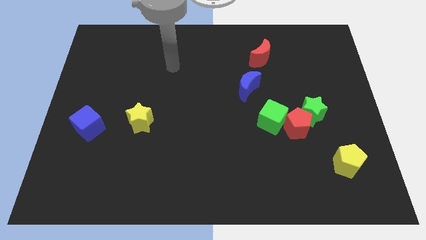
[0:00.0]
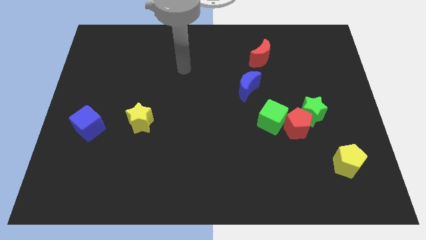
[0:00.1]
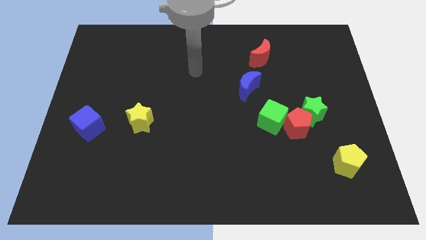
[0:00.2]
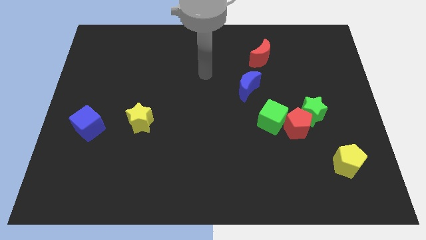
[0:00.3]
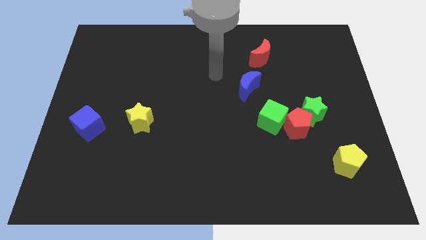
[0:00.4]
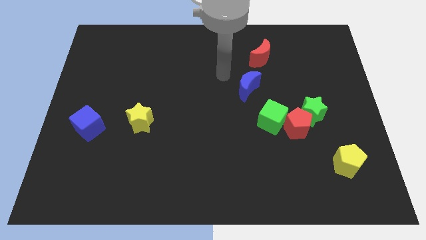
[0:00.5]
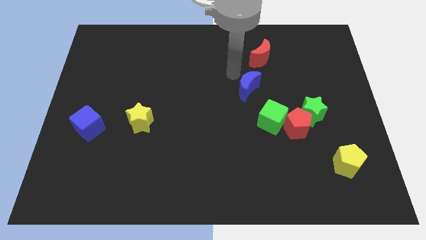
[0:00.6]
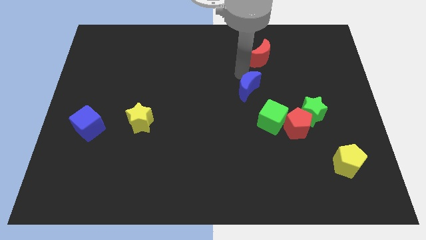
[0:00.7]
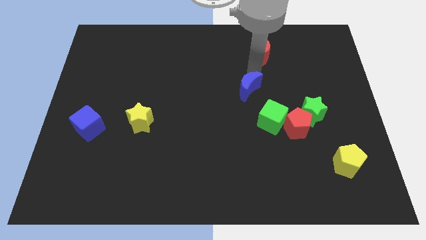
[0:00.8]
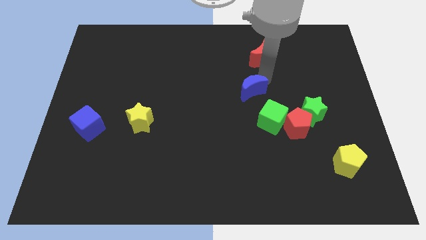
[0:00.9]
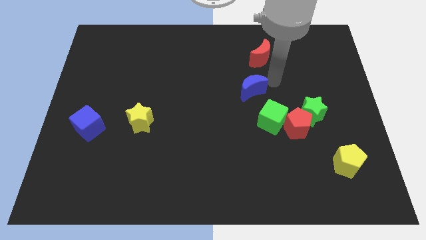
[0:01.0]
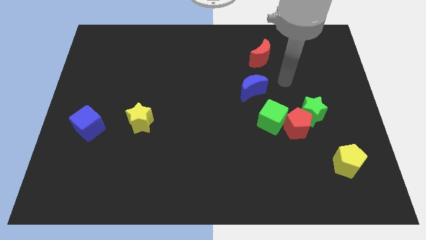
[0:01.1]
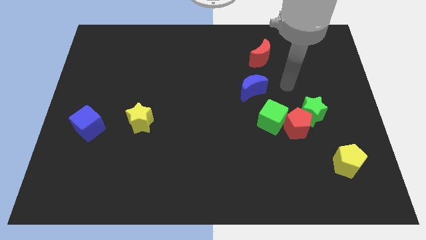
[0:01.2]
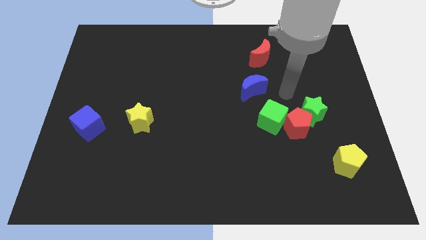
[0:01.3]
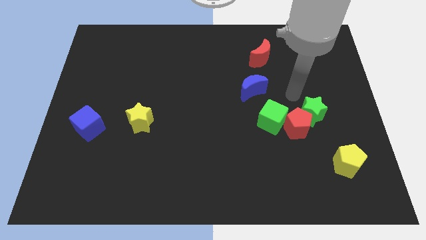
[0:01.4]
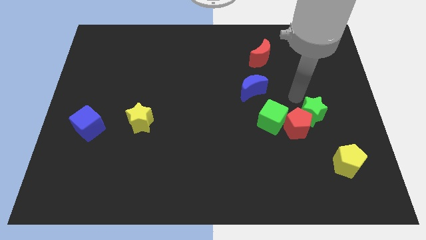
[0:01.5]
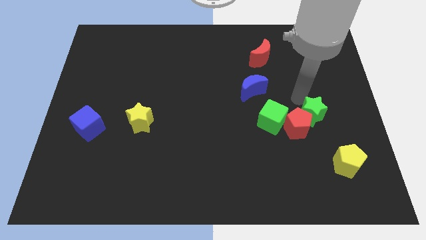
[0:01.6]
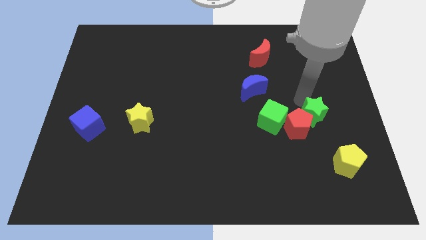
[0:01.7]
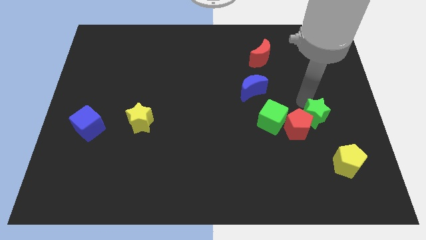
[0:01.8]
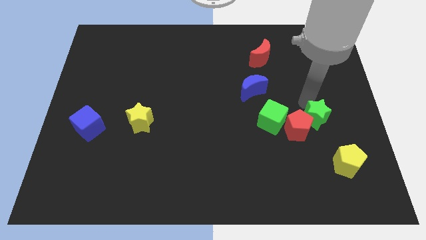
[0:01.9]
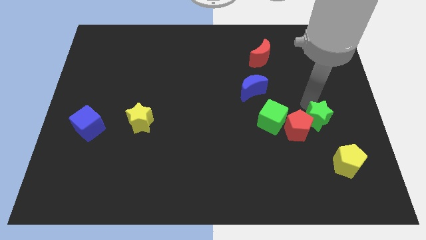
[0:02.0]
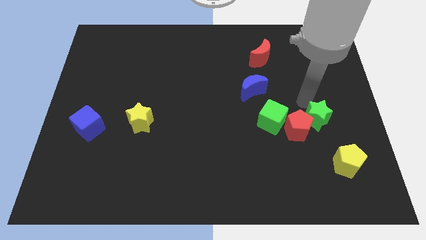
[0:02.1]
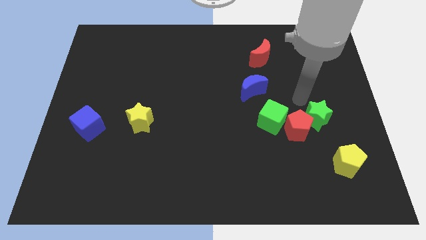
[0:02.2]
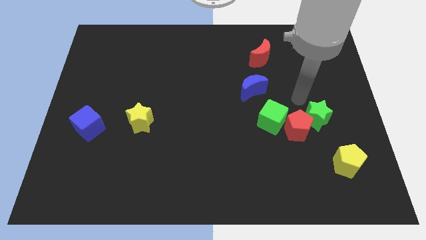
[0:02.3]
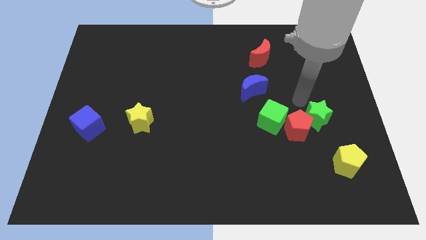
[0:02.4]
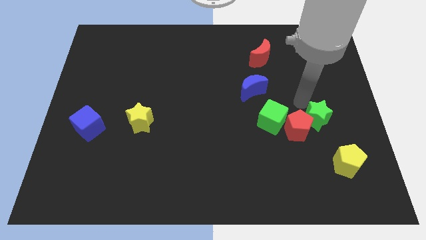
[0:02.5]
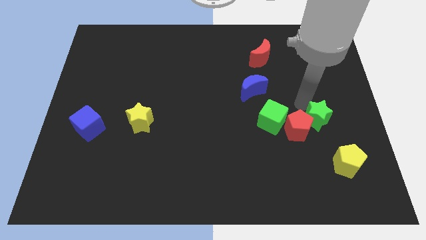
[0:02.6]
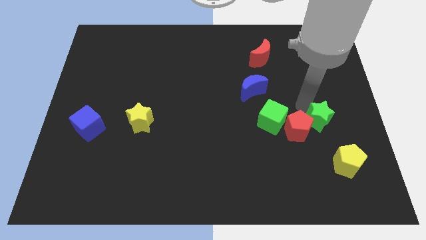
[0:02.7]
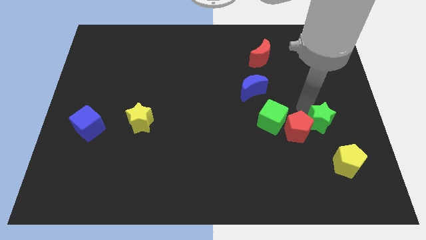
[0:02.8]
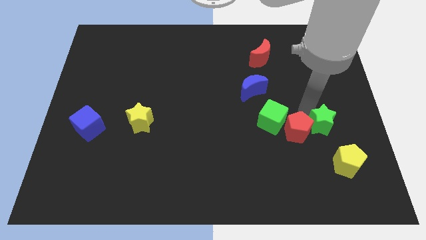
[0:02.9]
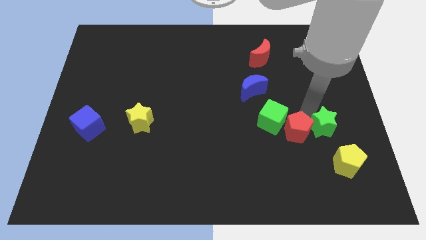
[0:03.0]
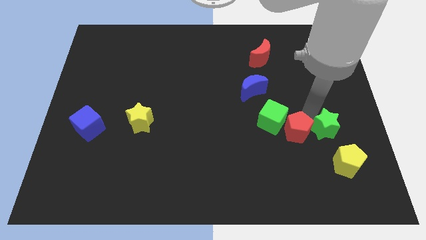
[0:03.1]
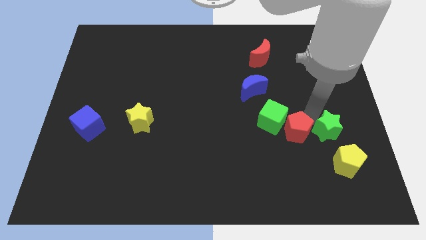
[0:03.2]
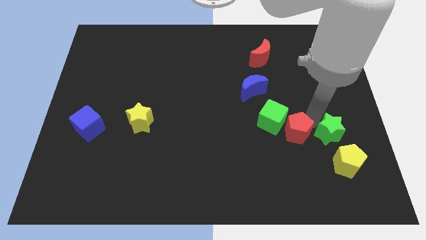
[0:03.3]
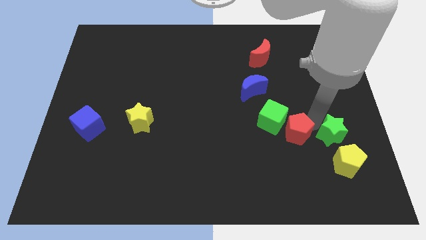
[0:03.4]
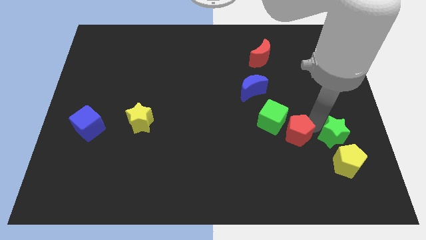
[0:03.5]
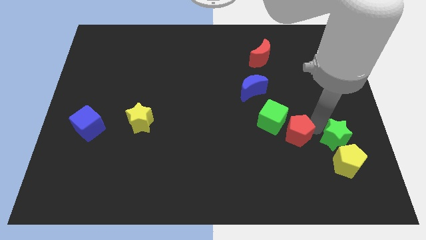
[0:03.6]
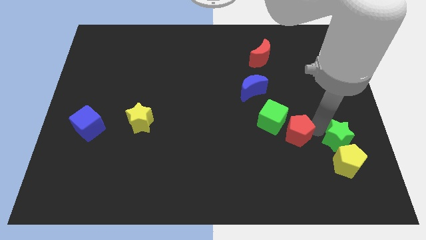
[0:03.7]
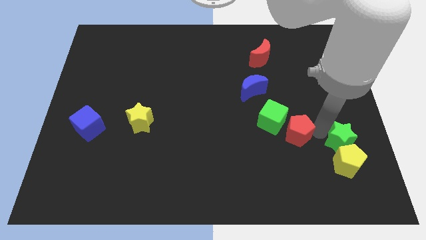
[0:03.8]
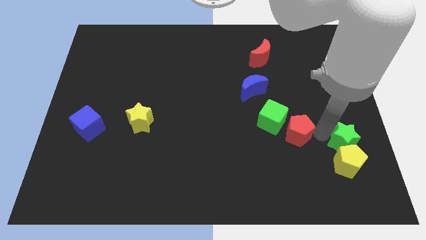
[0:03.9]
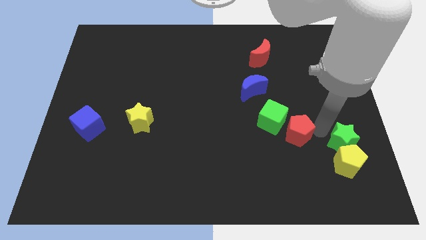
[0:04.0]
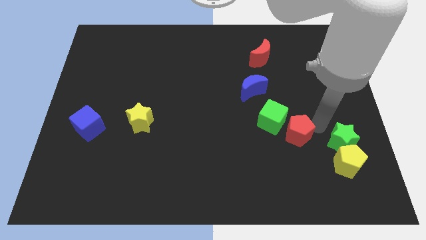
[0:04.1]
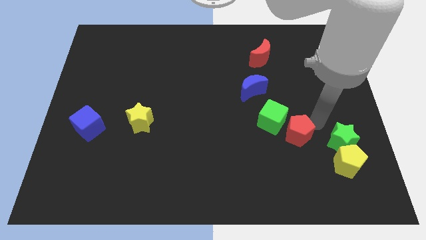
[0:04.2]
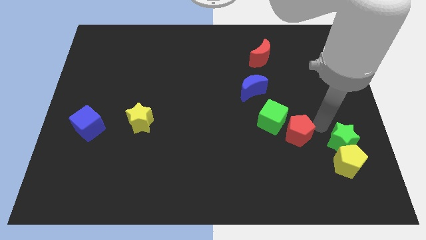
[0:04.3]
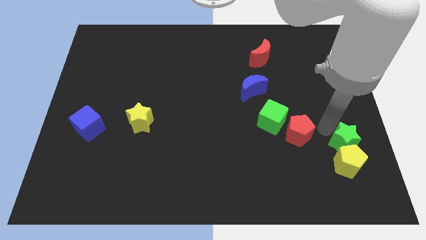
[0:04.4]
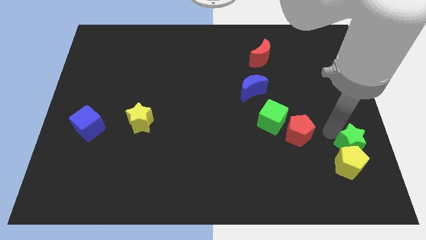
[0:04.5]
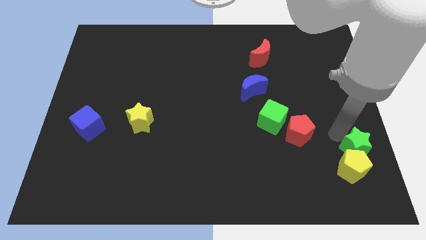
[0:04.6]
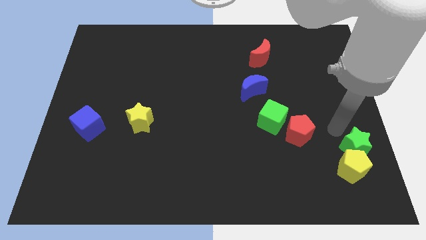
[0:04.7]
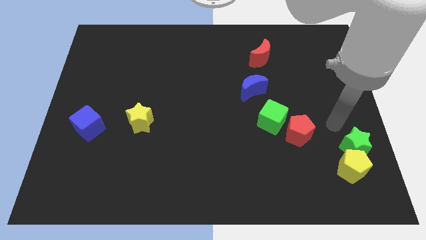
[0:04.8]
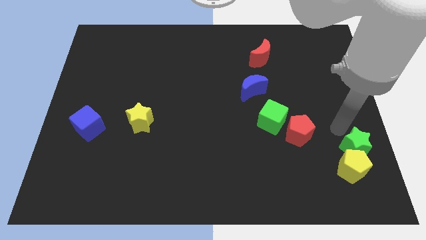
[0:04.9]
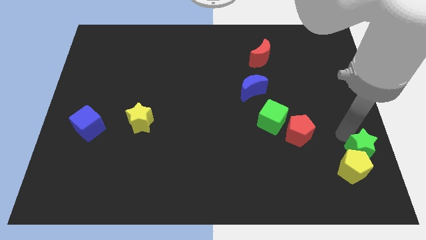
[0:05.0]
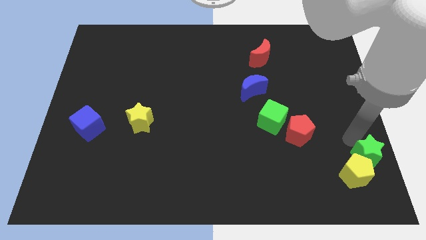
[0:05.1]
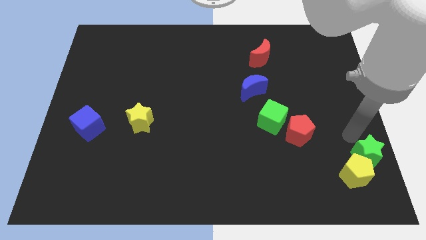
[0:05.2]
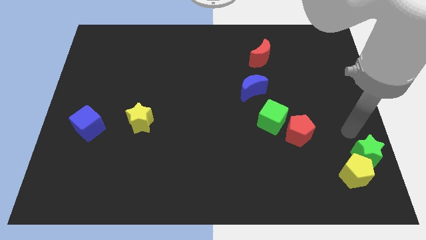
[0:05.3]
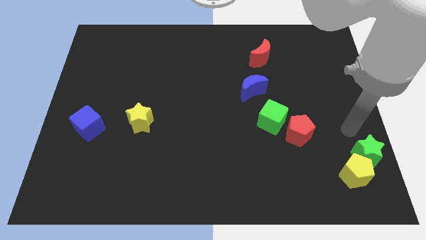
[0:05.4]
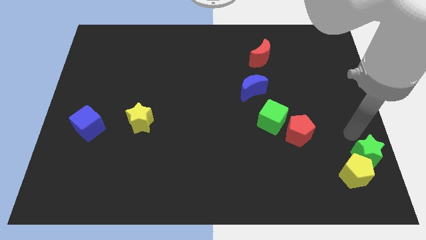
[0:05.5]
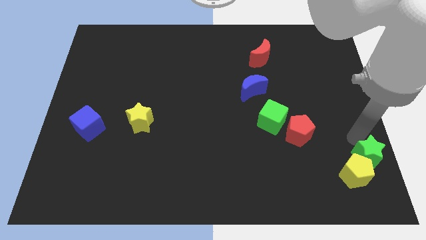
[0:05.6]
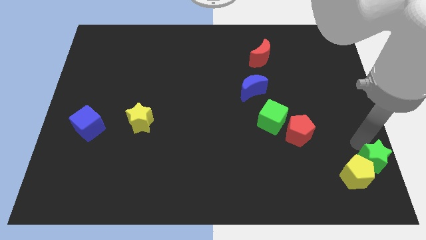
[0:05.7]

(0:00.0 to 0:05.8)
put the green star to the bottom right

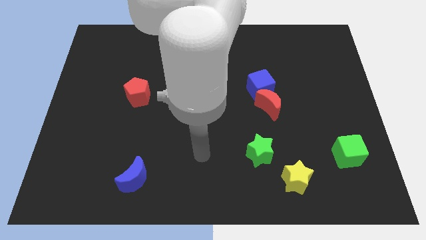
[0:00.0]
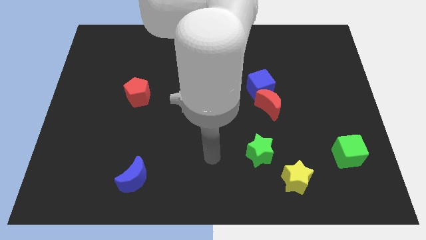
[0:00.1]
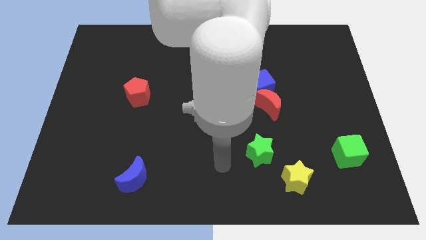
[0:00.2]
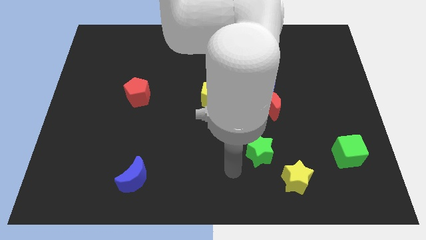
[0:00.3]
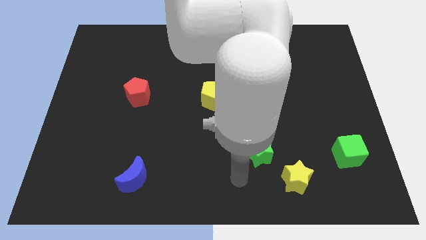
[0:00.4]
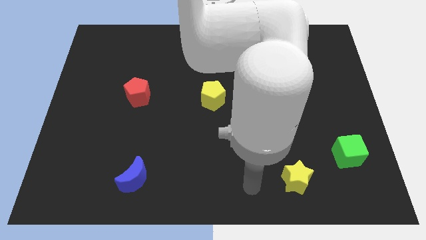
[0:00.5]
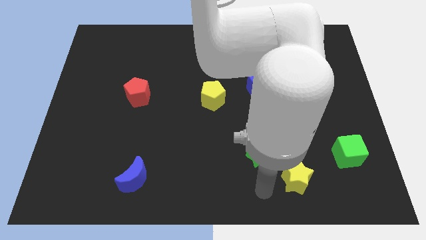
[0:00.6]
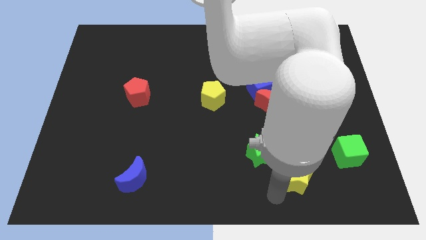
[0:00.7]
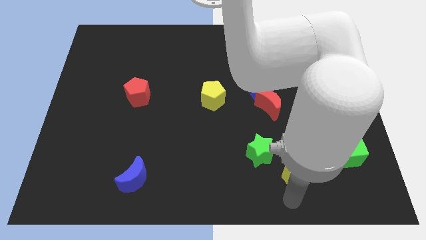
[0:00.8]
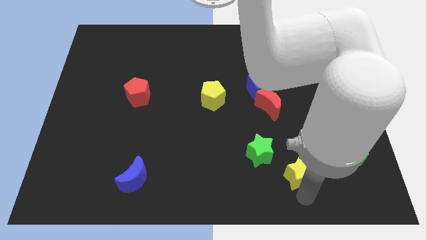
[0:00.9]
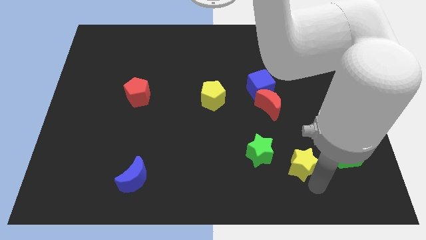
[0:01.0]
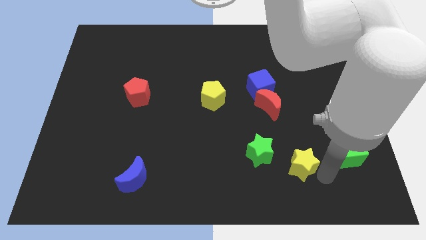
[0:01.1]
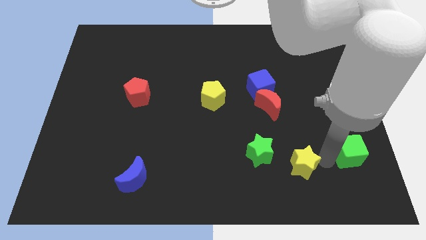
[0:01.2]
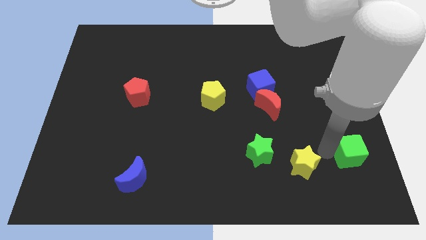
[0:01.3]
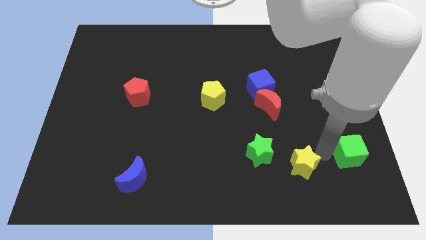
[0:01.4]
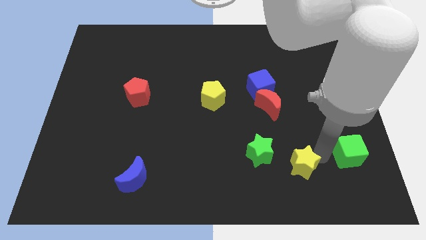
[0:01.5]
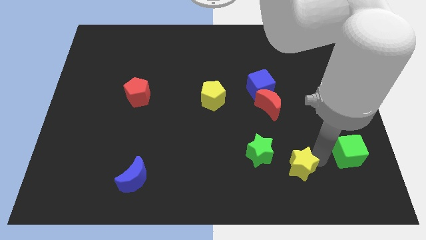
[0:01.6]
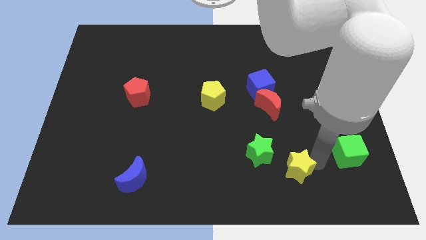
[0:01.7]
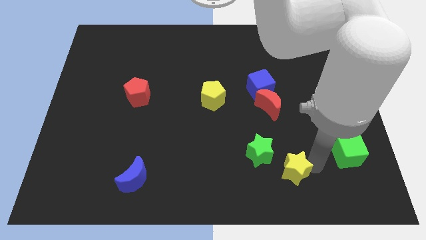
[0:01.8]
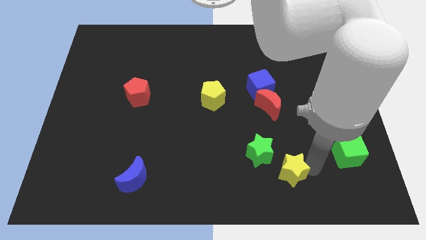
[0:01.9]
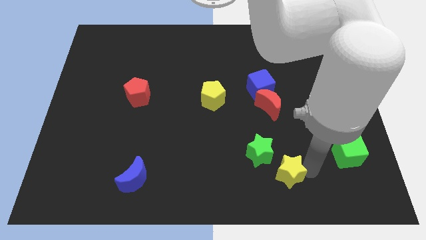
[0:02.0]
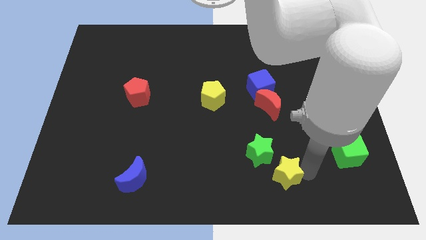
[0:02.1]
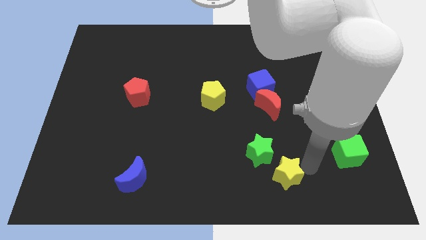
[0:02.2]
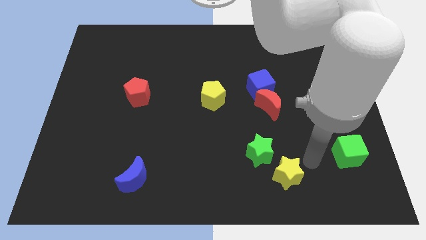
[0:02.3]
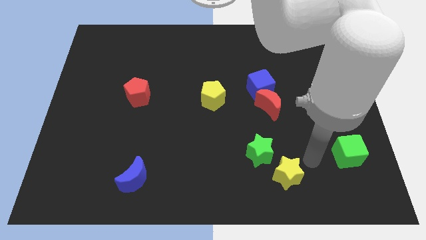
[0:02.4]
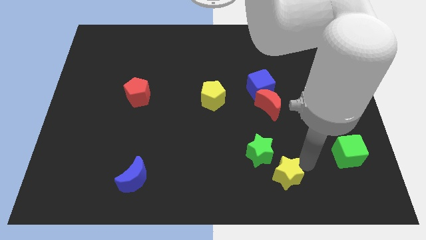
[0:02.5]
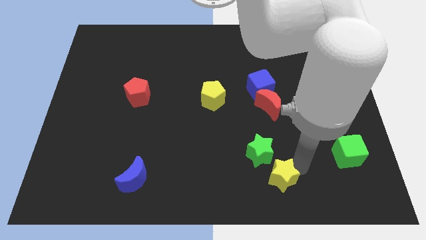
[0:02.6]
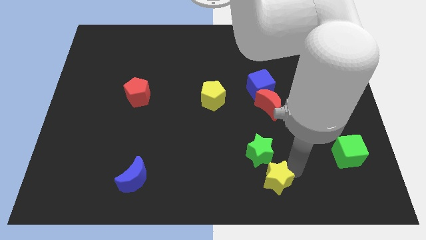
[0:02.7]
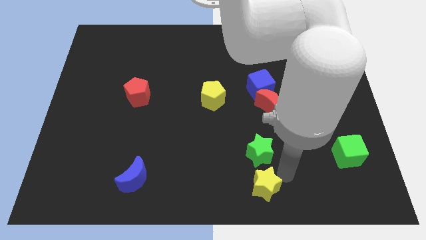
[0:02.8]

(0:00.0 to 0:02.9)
put the yellow star to the bottom
